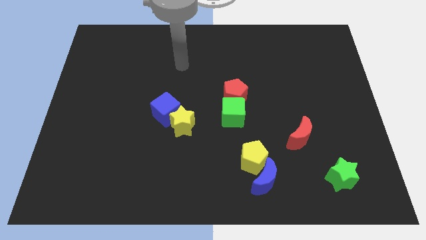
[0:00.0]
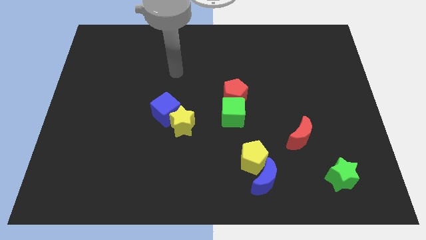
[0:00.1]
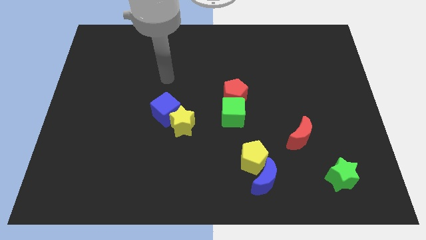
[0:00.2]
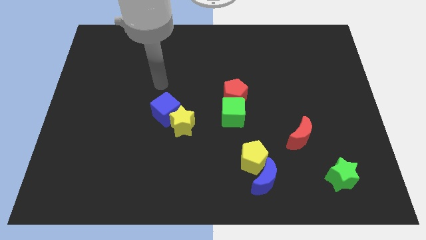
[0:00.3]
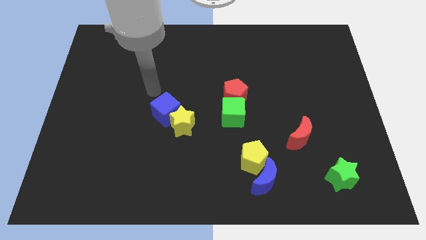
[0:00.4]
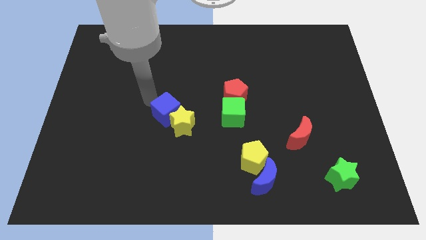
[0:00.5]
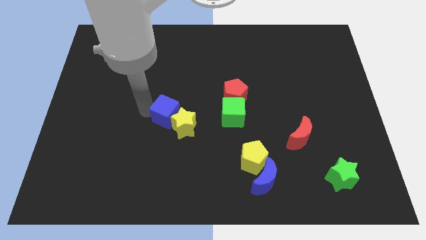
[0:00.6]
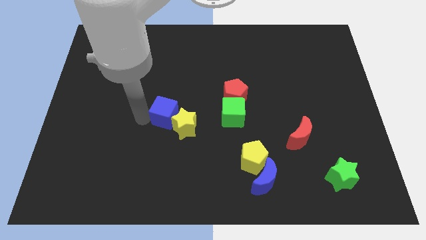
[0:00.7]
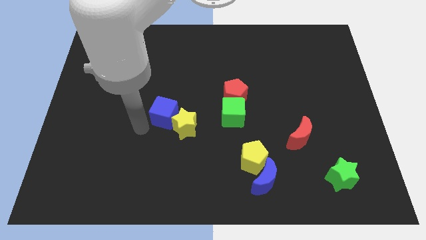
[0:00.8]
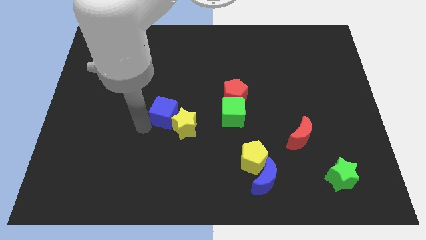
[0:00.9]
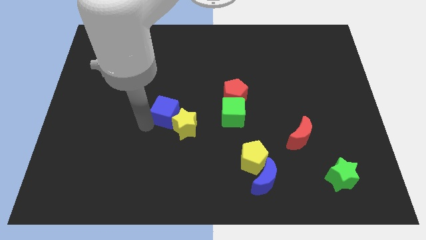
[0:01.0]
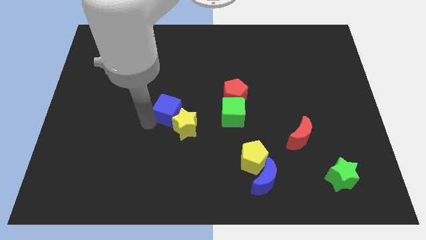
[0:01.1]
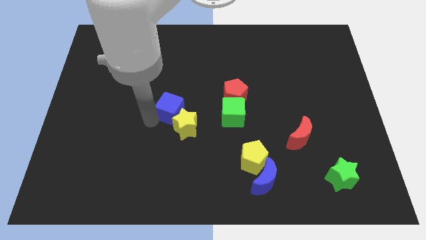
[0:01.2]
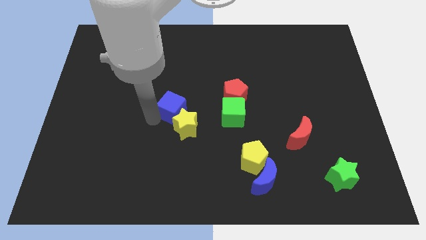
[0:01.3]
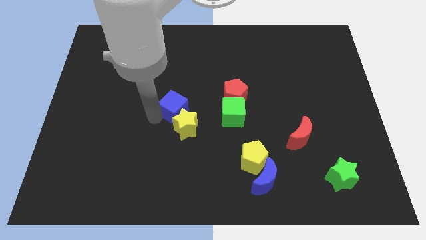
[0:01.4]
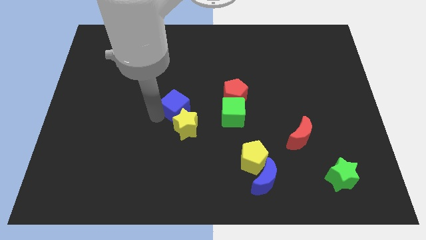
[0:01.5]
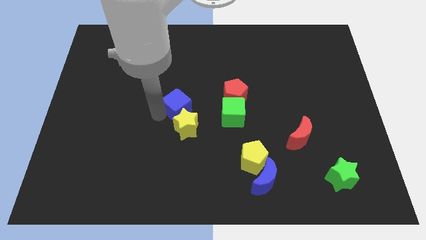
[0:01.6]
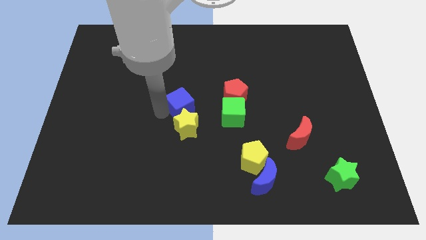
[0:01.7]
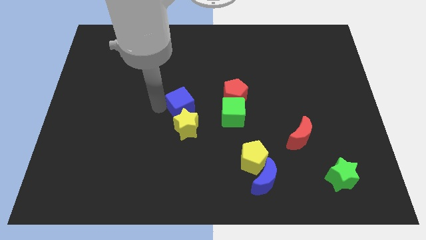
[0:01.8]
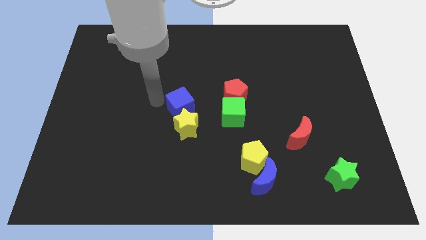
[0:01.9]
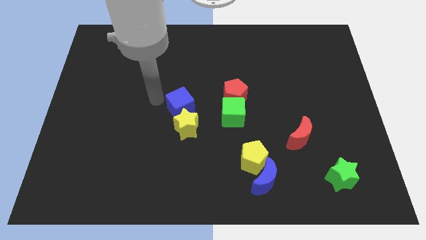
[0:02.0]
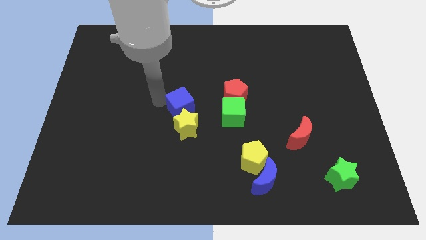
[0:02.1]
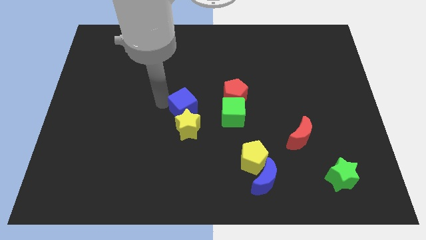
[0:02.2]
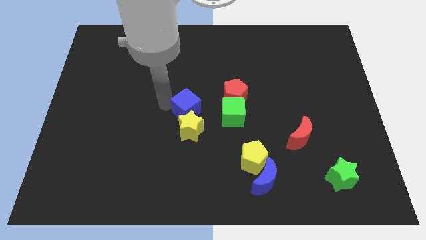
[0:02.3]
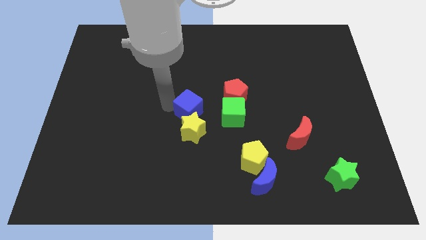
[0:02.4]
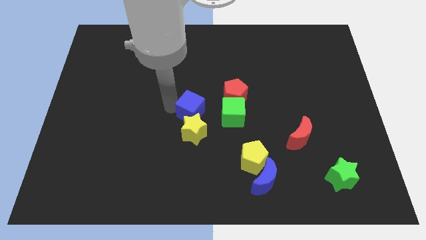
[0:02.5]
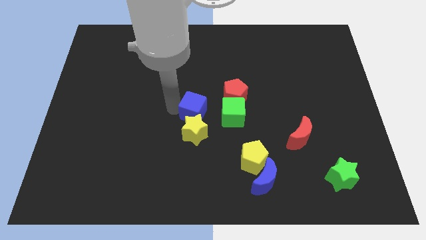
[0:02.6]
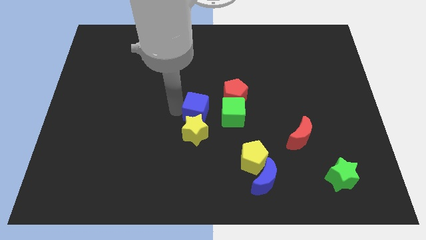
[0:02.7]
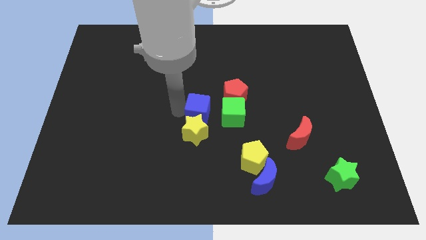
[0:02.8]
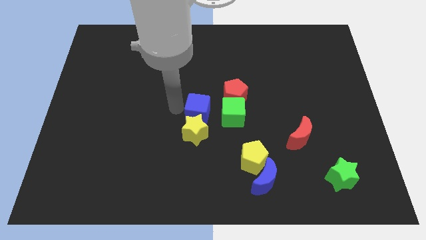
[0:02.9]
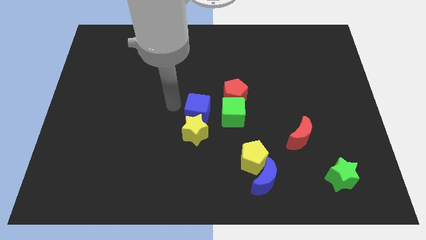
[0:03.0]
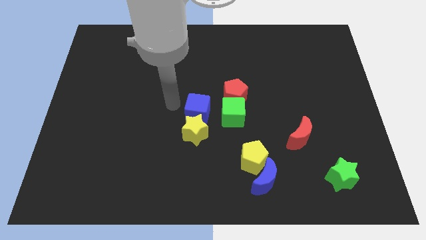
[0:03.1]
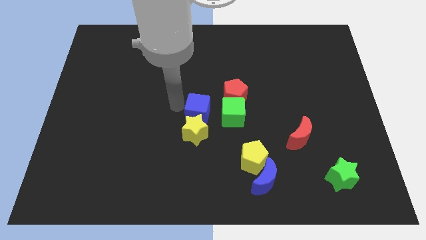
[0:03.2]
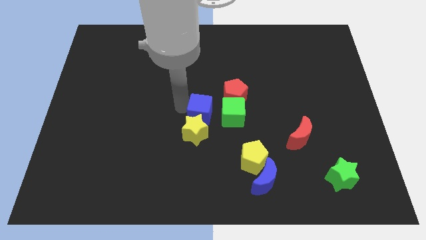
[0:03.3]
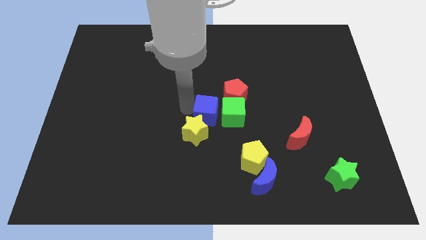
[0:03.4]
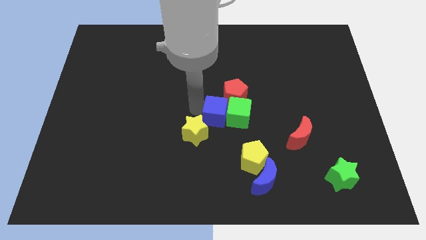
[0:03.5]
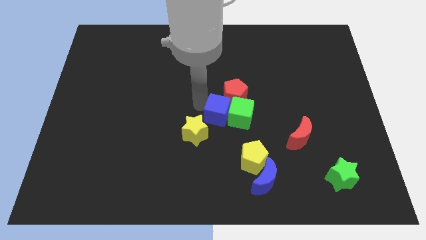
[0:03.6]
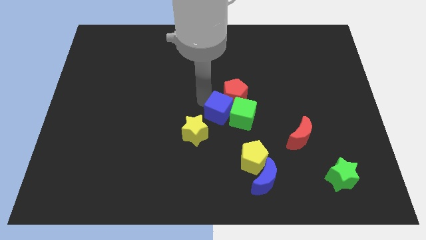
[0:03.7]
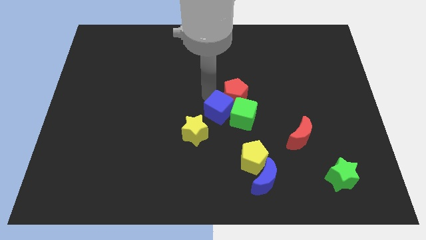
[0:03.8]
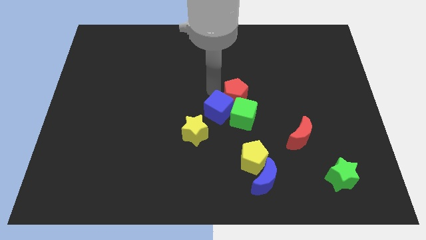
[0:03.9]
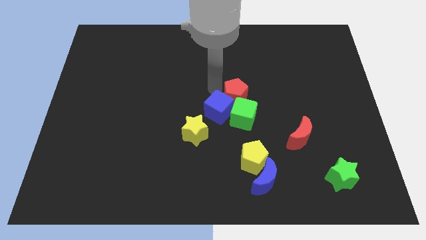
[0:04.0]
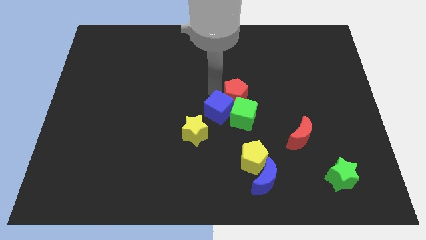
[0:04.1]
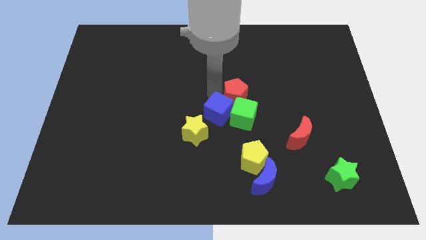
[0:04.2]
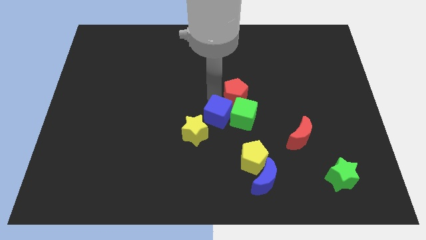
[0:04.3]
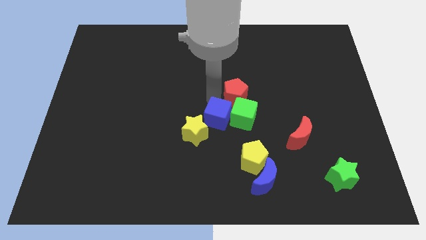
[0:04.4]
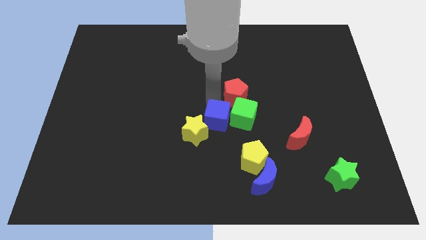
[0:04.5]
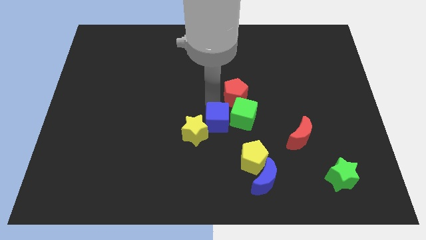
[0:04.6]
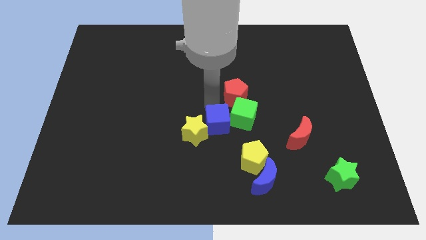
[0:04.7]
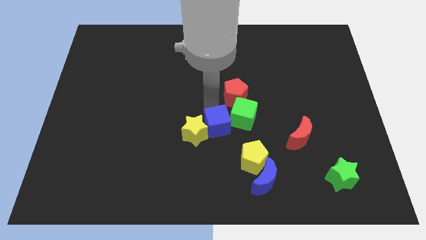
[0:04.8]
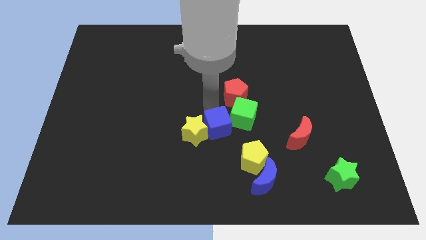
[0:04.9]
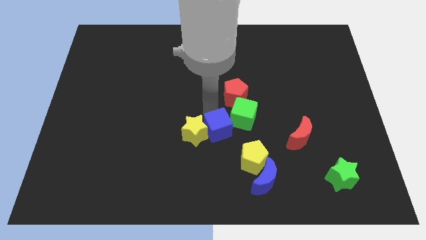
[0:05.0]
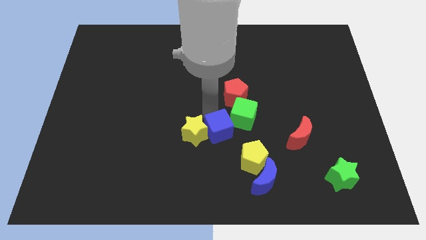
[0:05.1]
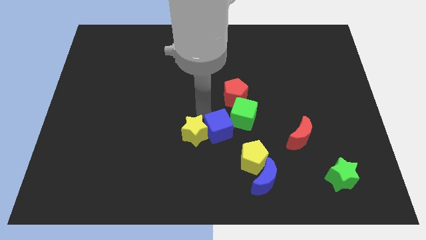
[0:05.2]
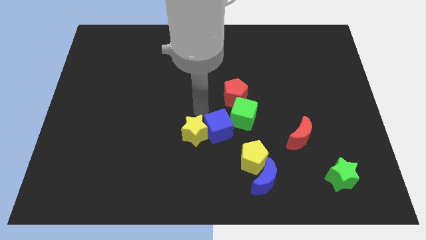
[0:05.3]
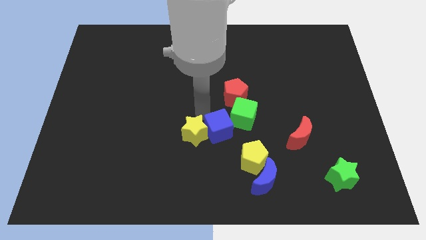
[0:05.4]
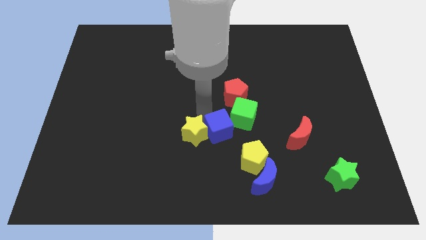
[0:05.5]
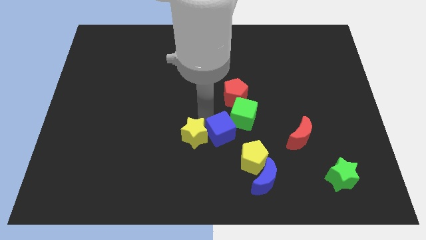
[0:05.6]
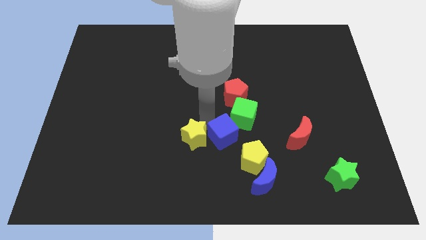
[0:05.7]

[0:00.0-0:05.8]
push the blue cube to the bottom side of the green cube

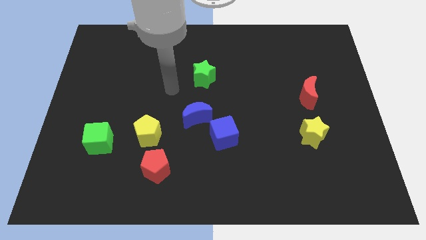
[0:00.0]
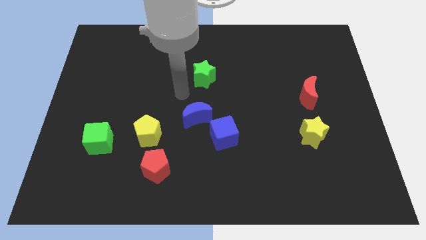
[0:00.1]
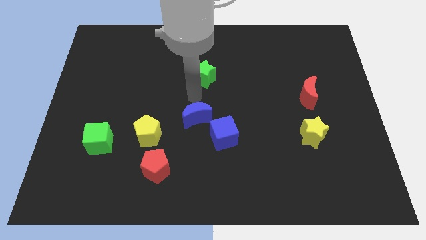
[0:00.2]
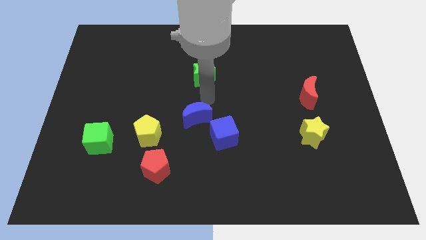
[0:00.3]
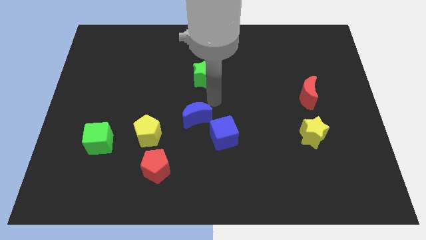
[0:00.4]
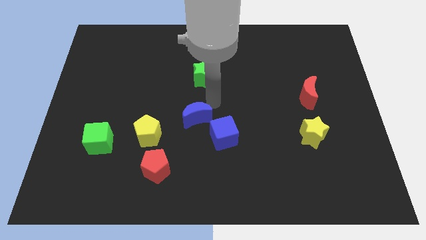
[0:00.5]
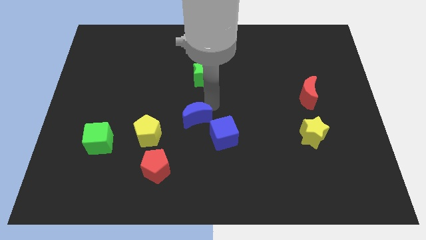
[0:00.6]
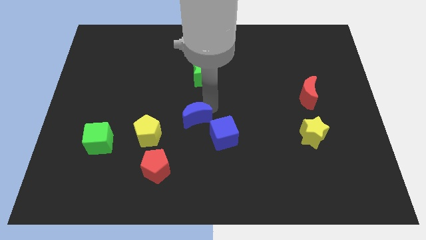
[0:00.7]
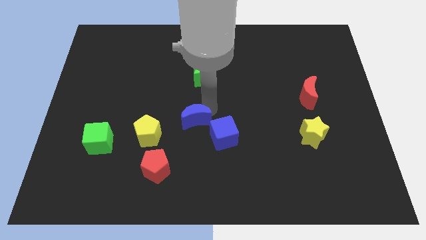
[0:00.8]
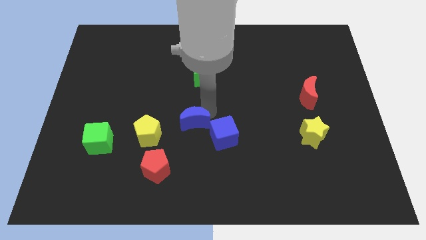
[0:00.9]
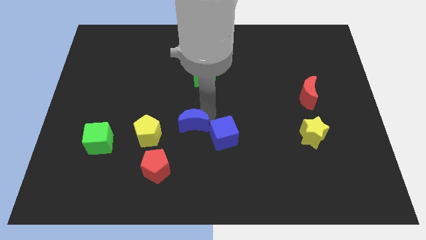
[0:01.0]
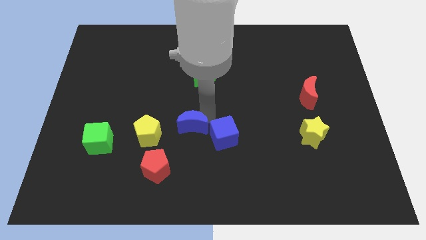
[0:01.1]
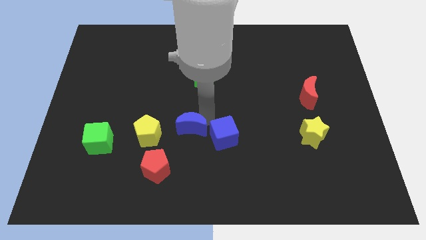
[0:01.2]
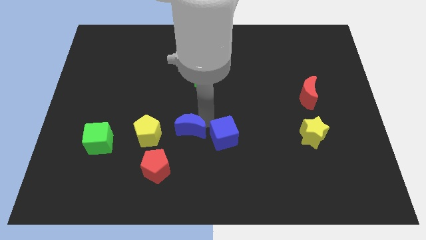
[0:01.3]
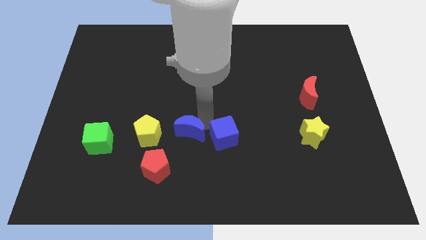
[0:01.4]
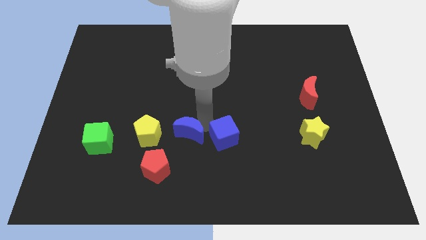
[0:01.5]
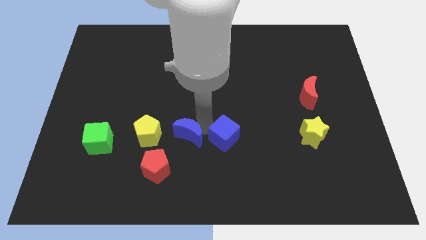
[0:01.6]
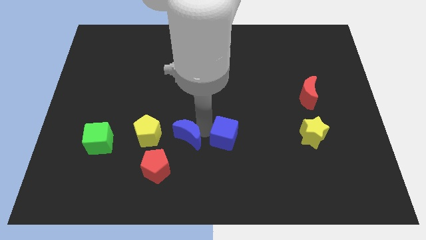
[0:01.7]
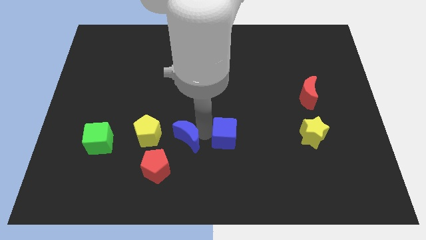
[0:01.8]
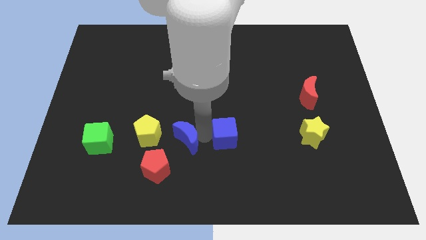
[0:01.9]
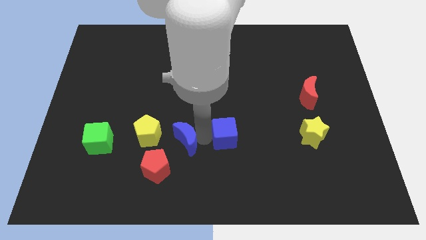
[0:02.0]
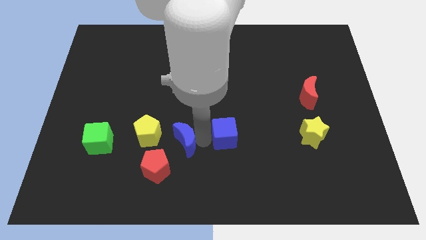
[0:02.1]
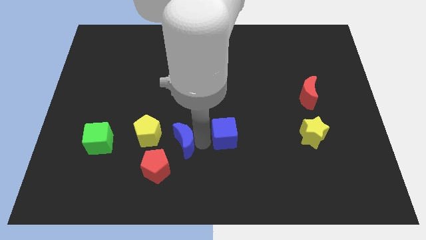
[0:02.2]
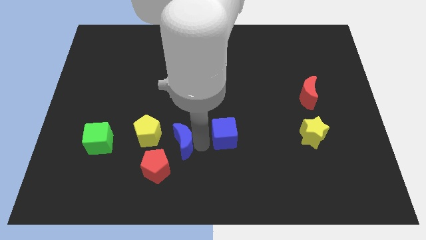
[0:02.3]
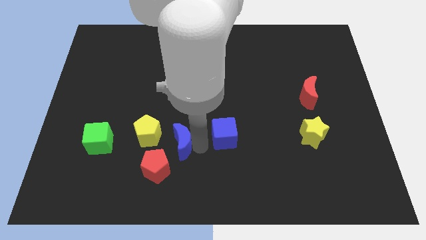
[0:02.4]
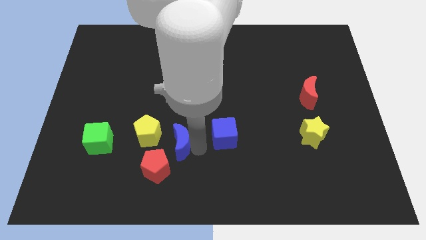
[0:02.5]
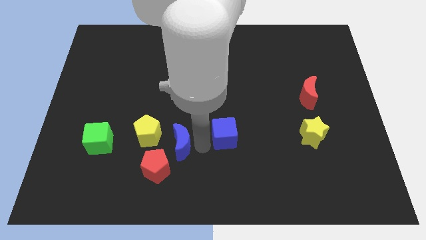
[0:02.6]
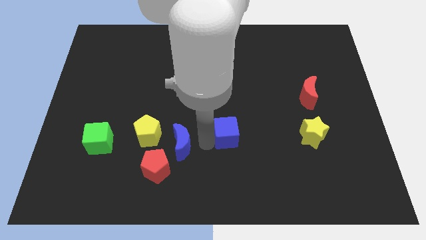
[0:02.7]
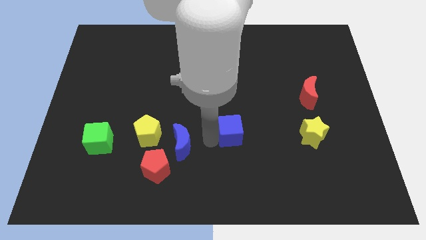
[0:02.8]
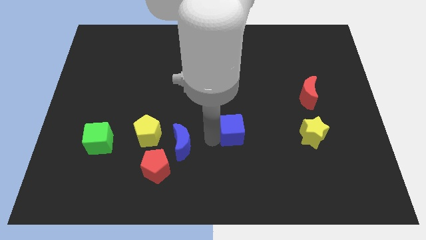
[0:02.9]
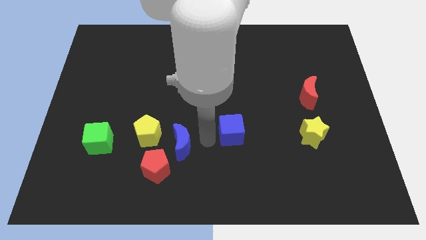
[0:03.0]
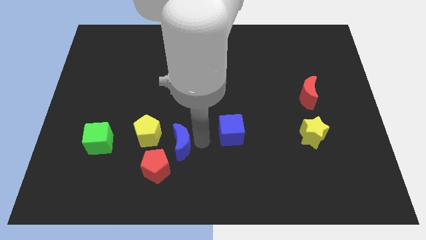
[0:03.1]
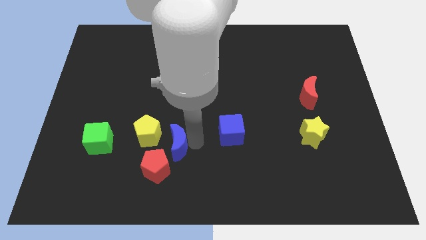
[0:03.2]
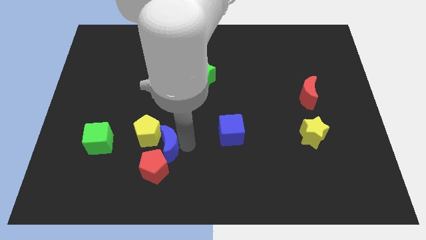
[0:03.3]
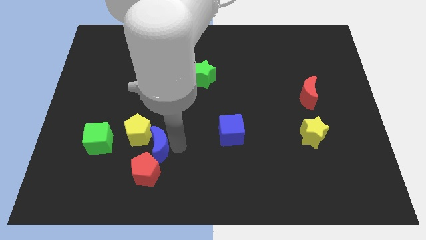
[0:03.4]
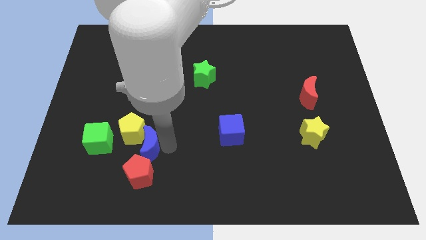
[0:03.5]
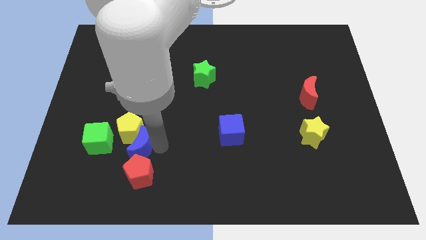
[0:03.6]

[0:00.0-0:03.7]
move the blue moon diagonally up and to the left of the red pentagon
